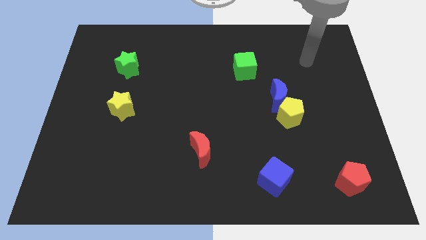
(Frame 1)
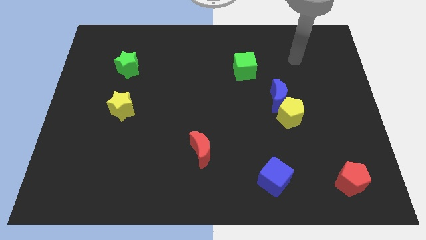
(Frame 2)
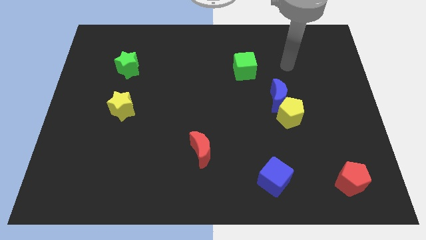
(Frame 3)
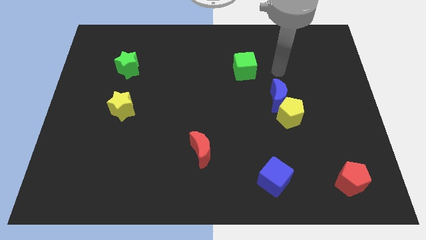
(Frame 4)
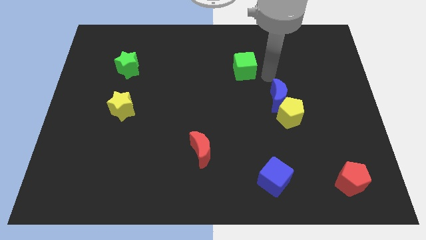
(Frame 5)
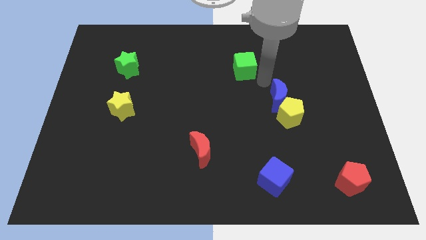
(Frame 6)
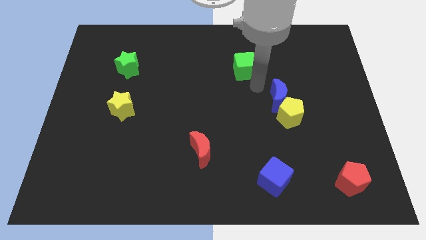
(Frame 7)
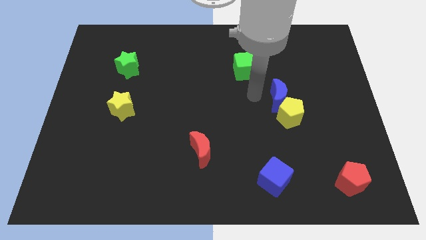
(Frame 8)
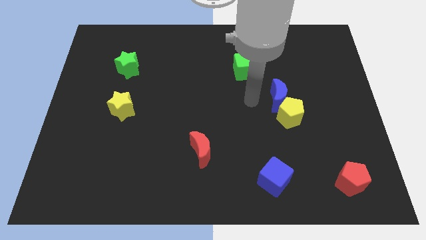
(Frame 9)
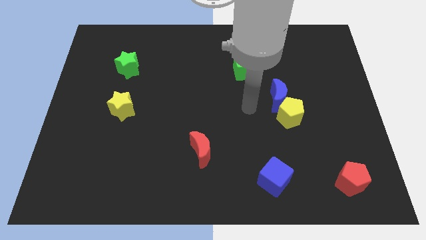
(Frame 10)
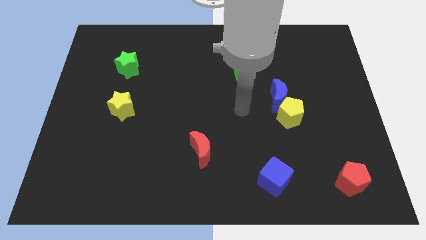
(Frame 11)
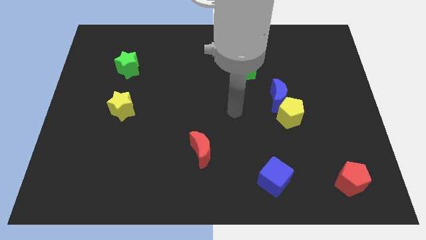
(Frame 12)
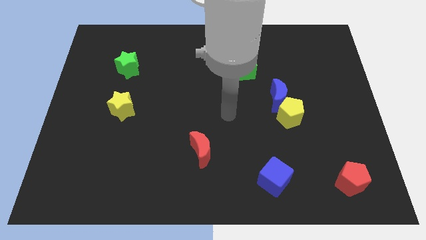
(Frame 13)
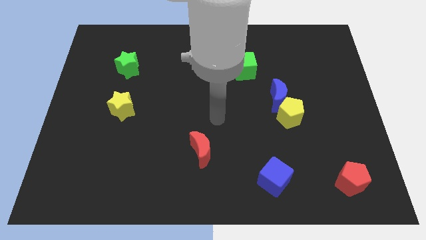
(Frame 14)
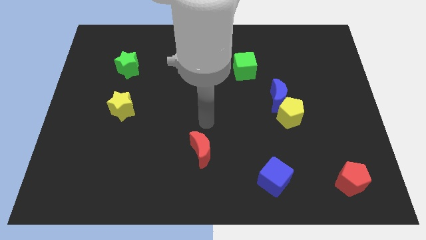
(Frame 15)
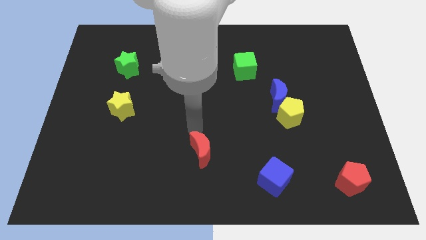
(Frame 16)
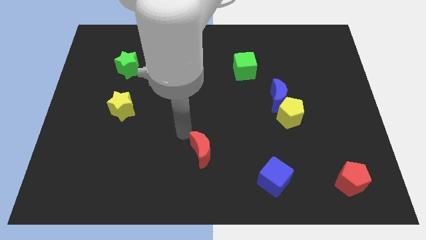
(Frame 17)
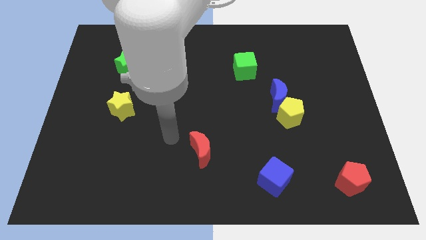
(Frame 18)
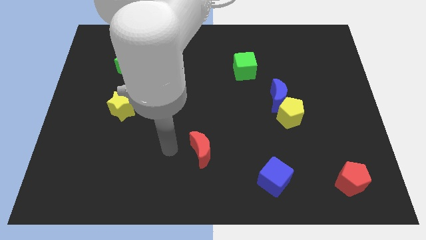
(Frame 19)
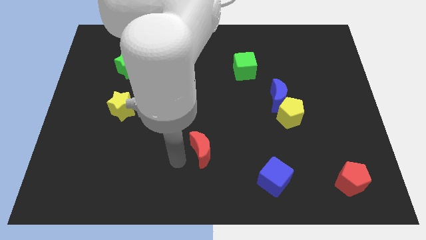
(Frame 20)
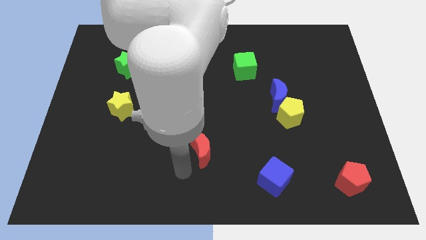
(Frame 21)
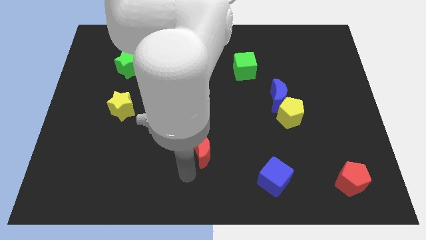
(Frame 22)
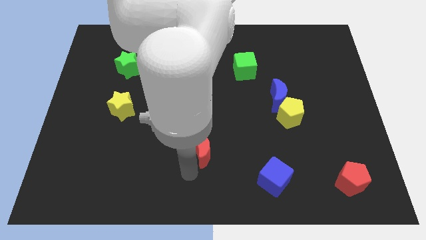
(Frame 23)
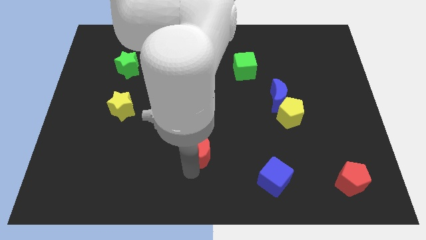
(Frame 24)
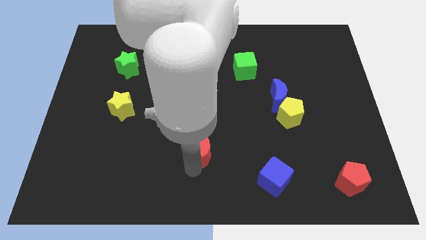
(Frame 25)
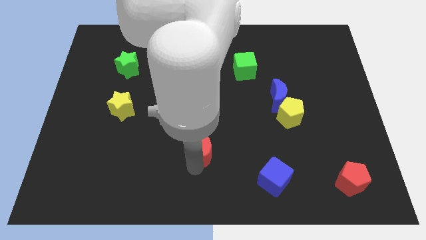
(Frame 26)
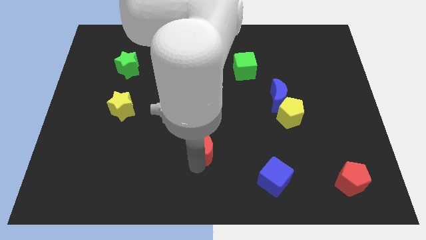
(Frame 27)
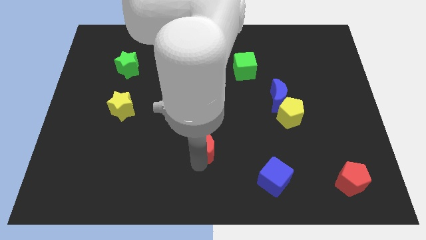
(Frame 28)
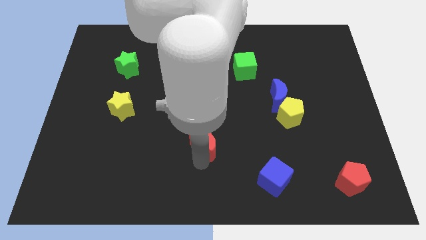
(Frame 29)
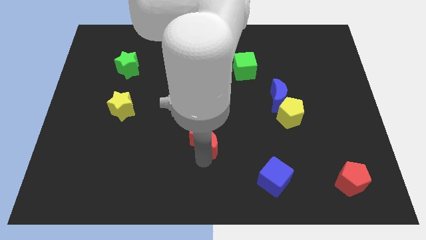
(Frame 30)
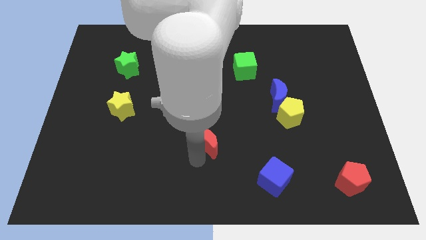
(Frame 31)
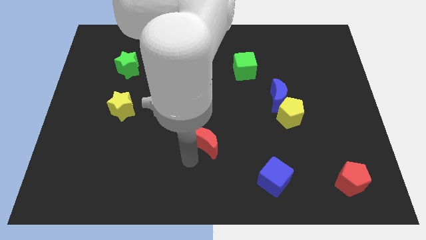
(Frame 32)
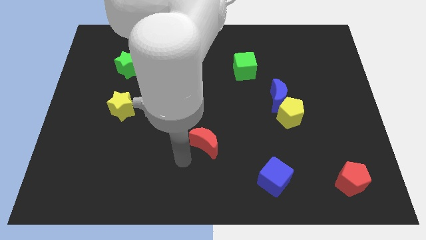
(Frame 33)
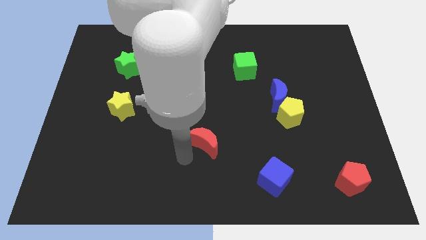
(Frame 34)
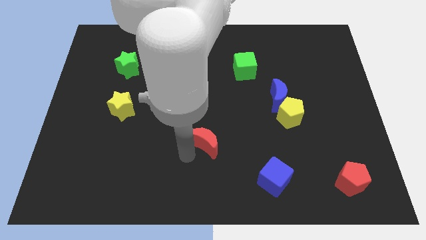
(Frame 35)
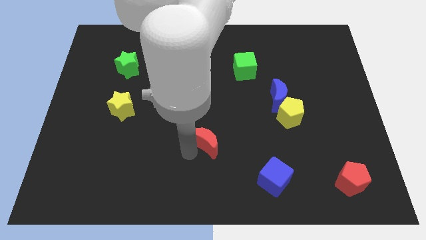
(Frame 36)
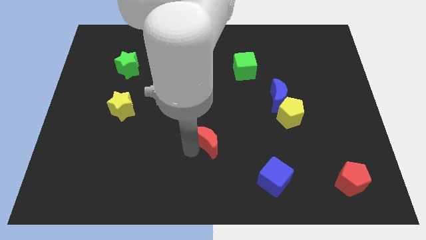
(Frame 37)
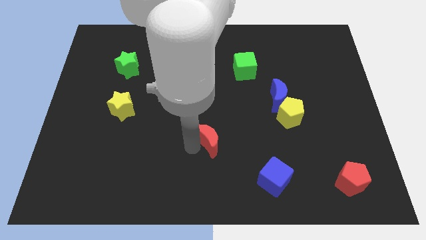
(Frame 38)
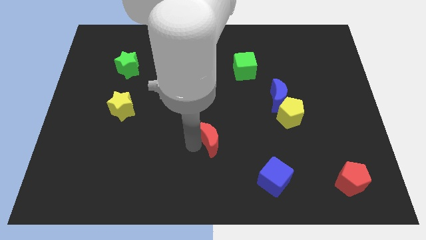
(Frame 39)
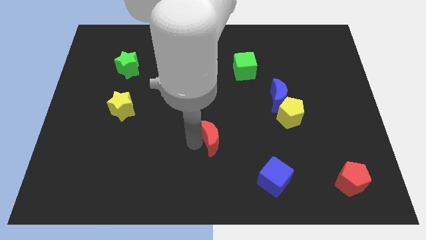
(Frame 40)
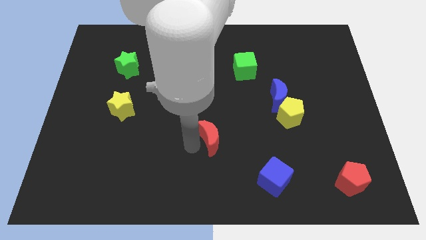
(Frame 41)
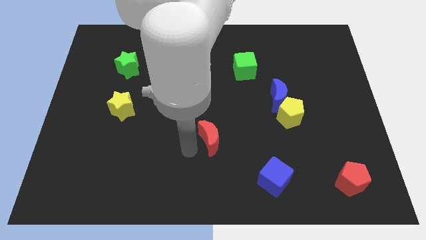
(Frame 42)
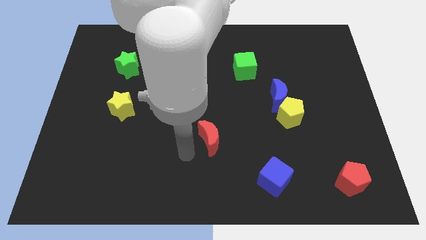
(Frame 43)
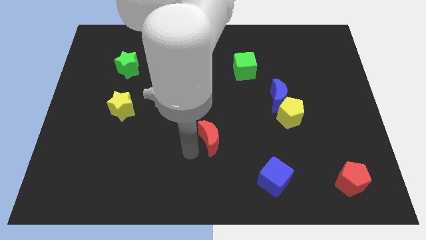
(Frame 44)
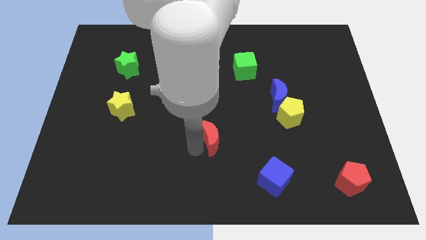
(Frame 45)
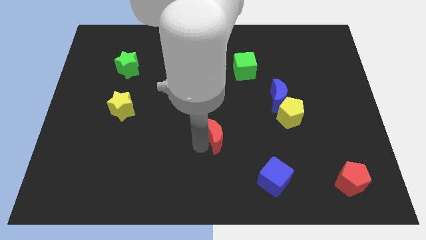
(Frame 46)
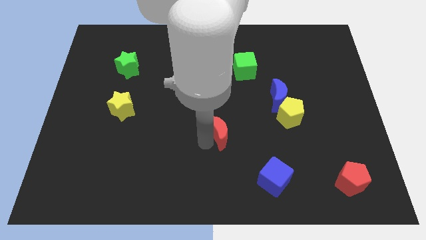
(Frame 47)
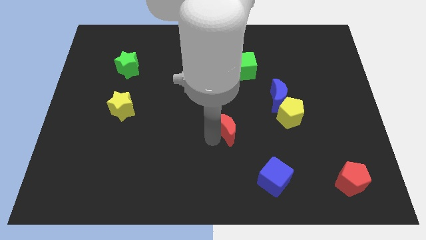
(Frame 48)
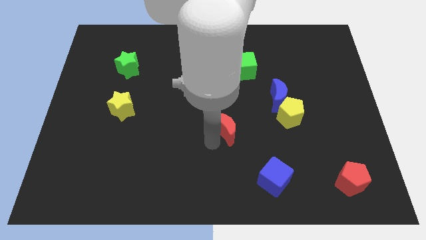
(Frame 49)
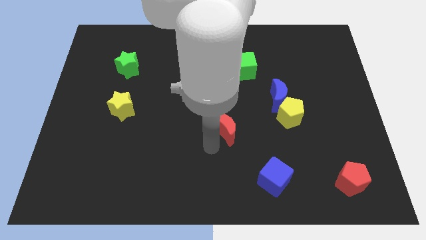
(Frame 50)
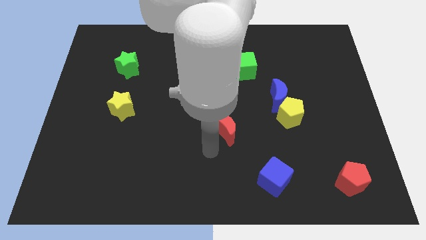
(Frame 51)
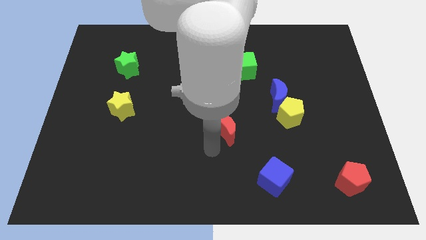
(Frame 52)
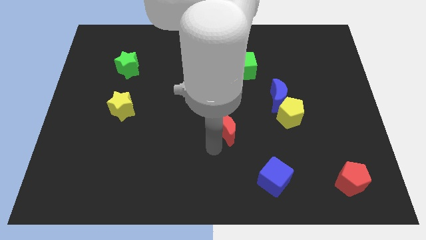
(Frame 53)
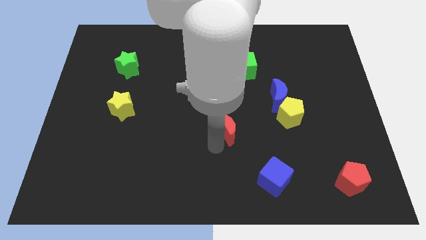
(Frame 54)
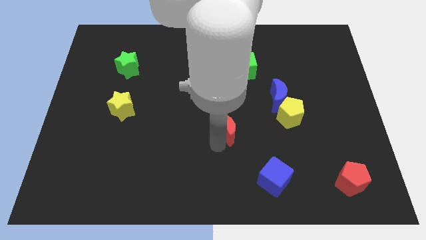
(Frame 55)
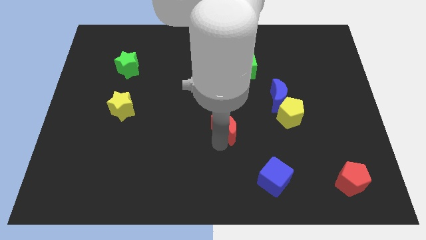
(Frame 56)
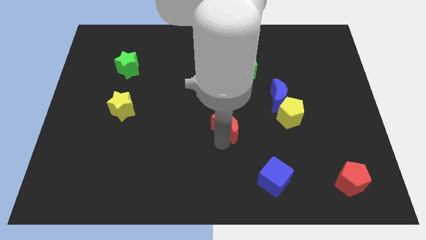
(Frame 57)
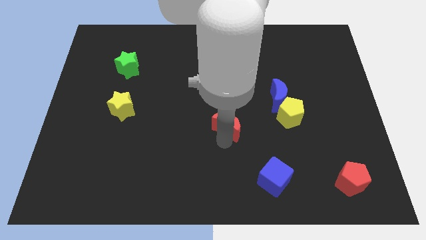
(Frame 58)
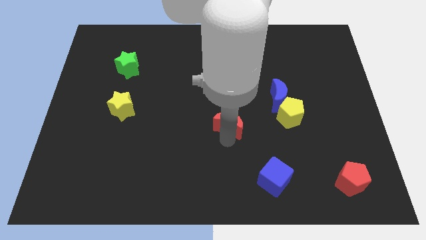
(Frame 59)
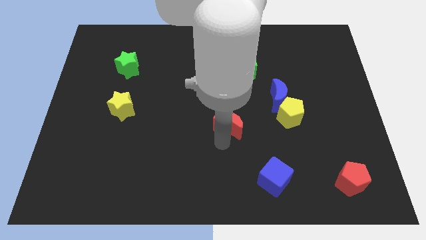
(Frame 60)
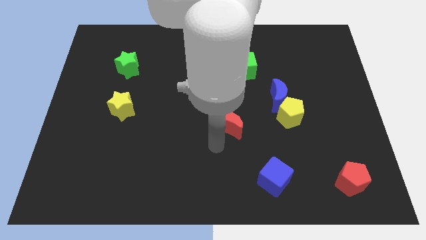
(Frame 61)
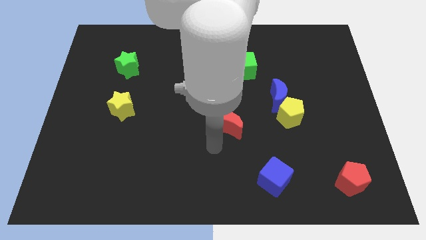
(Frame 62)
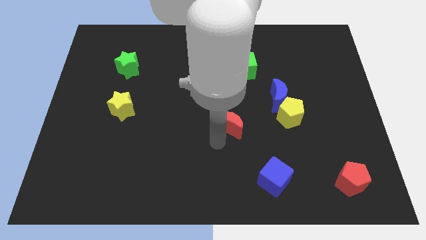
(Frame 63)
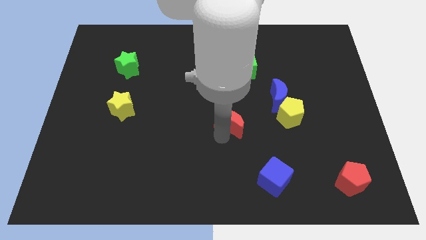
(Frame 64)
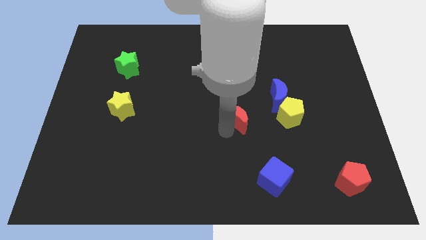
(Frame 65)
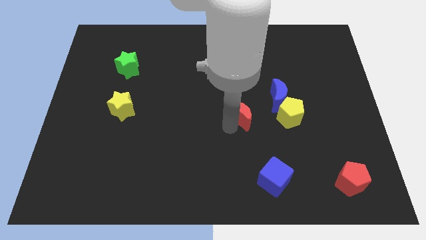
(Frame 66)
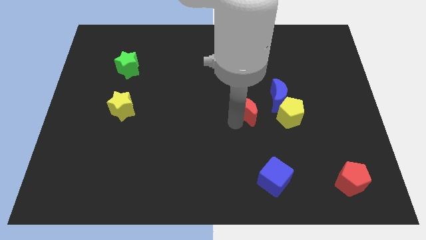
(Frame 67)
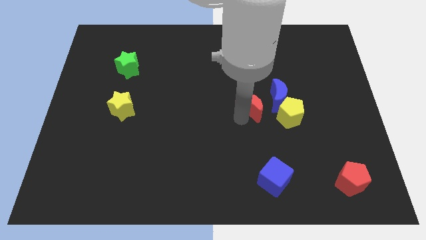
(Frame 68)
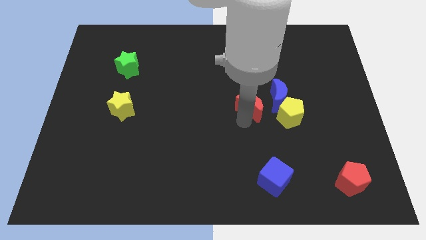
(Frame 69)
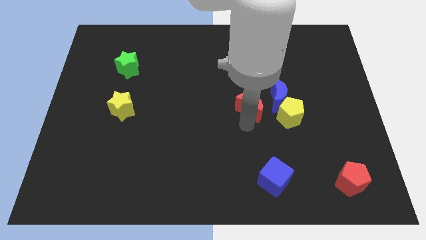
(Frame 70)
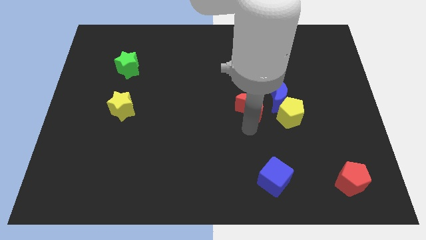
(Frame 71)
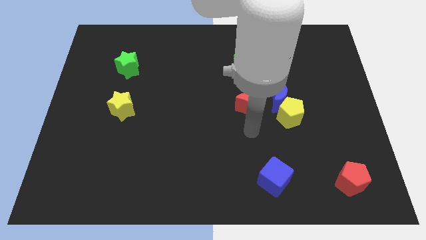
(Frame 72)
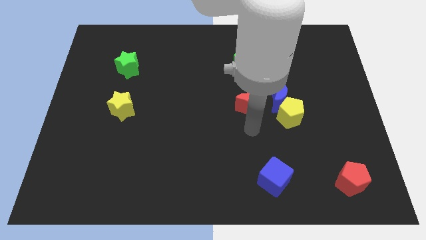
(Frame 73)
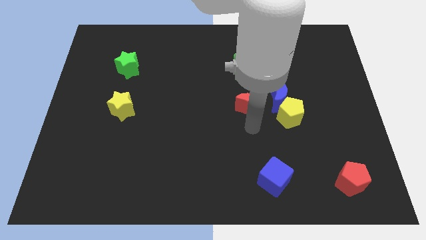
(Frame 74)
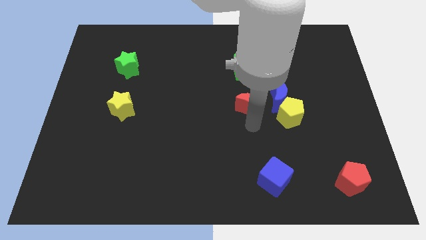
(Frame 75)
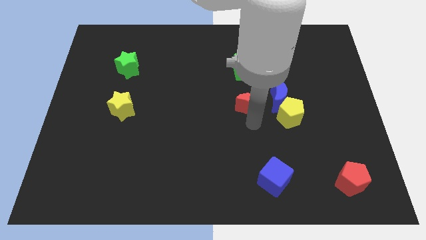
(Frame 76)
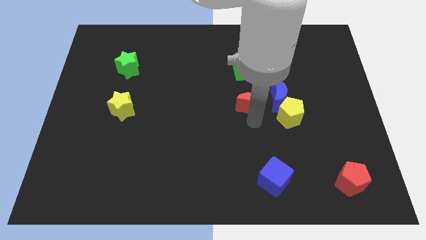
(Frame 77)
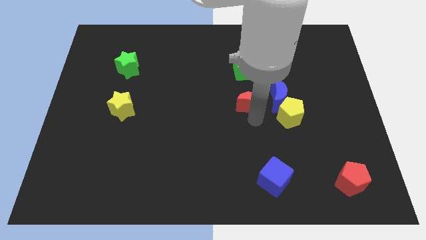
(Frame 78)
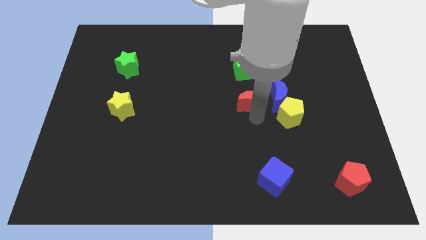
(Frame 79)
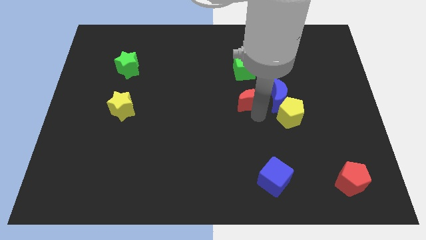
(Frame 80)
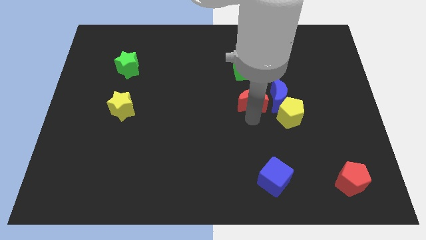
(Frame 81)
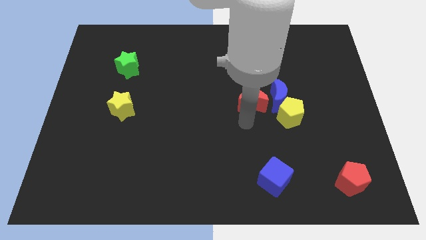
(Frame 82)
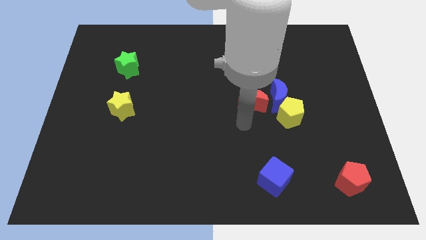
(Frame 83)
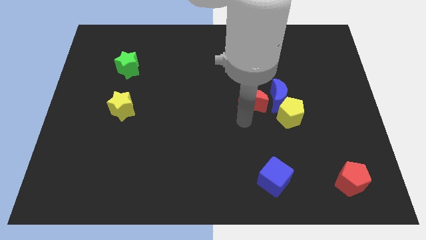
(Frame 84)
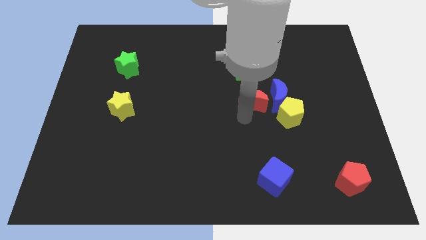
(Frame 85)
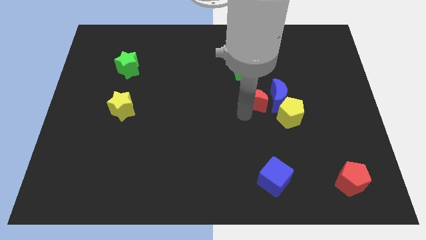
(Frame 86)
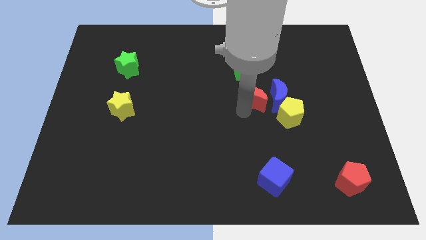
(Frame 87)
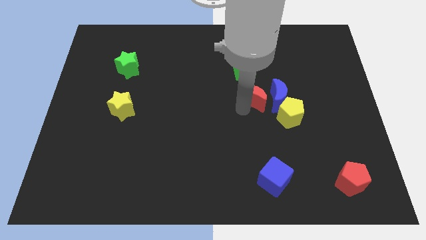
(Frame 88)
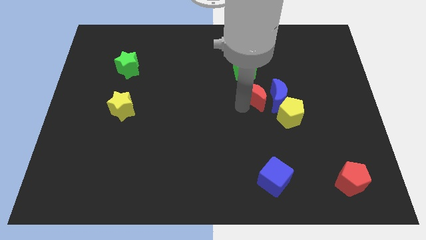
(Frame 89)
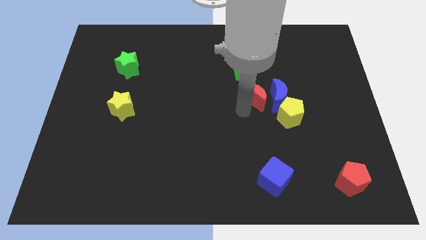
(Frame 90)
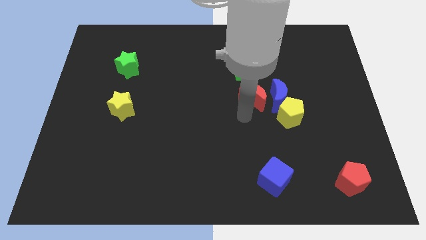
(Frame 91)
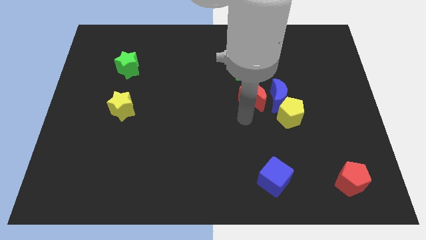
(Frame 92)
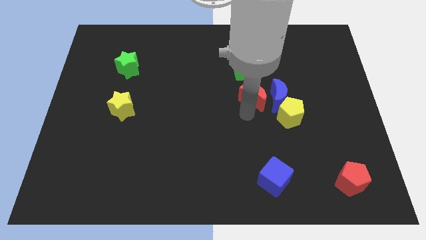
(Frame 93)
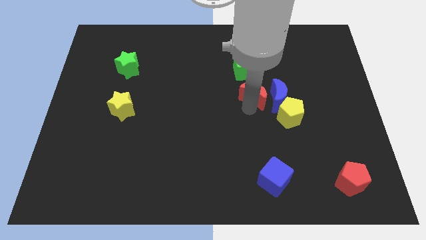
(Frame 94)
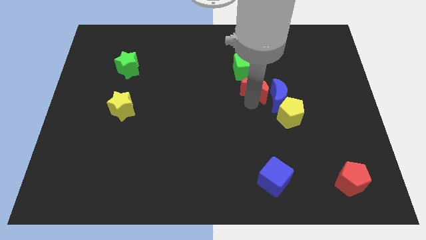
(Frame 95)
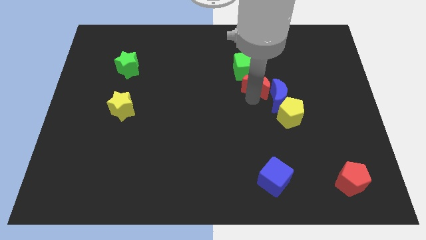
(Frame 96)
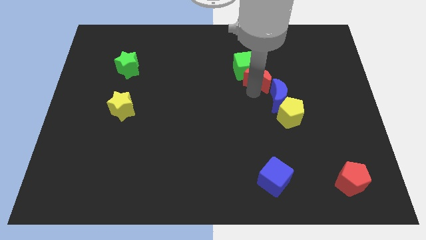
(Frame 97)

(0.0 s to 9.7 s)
slide the red moon to the top side of the blue moon
